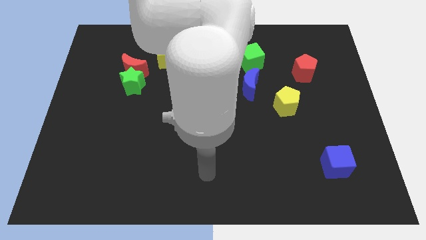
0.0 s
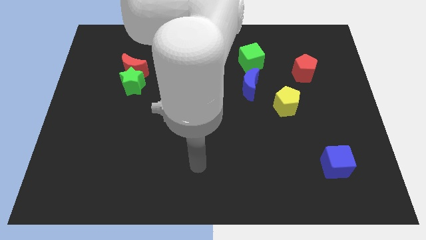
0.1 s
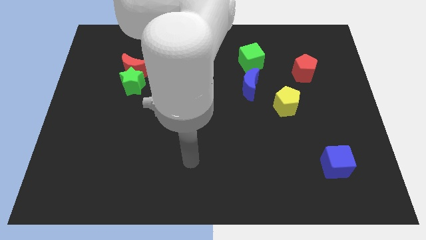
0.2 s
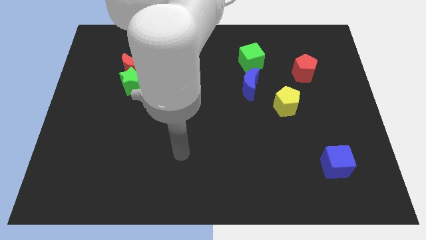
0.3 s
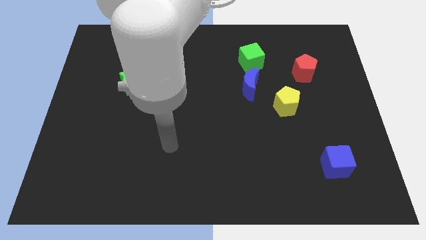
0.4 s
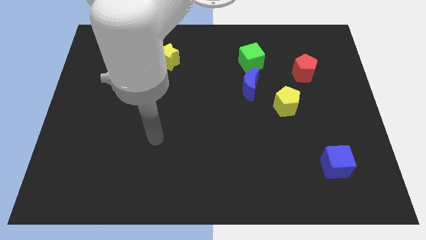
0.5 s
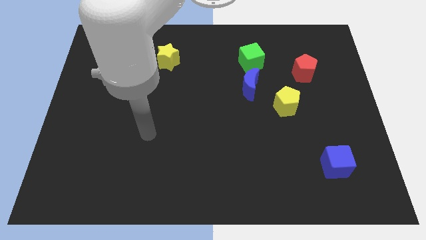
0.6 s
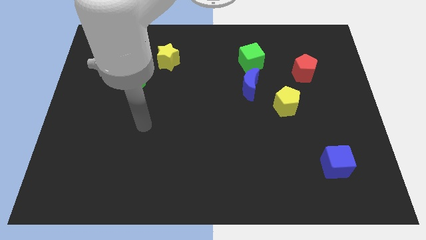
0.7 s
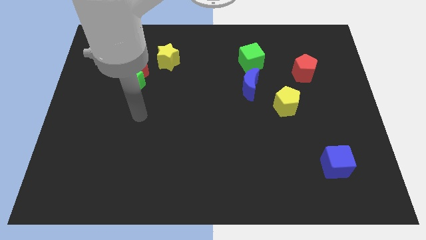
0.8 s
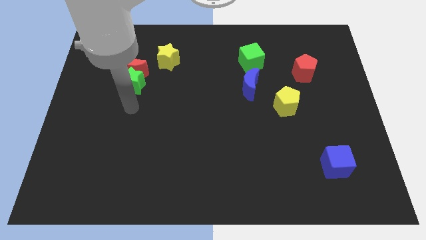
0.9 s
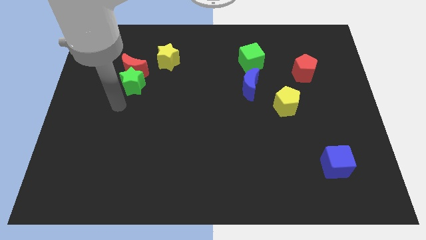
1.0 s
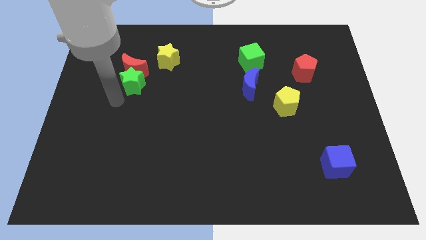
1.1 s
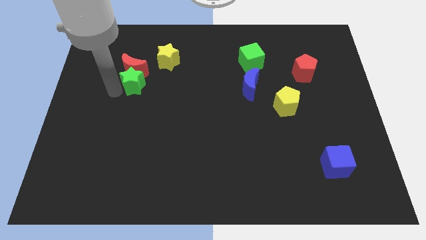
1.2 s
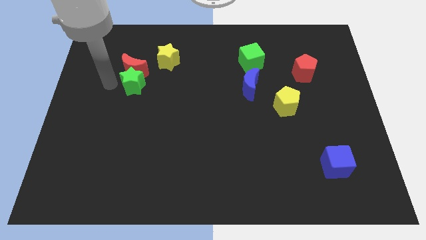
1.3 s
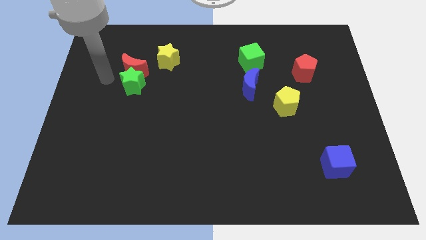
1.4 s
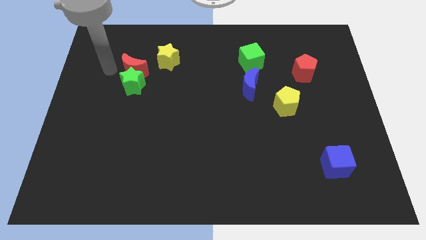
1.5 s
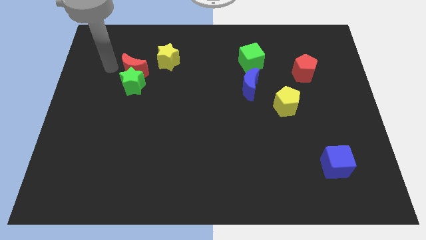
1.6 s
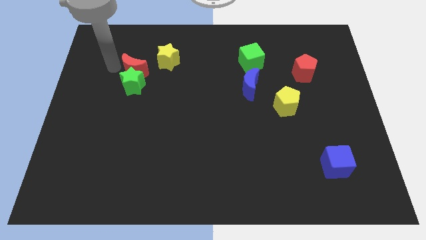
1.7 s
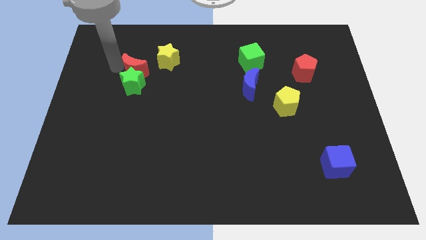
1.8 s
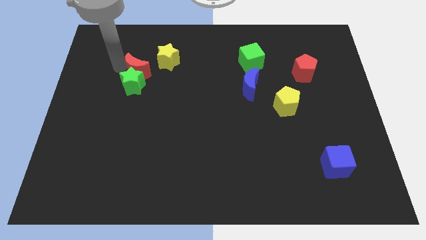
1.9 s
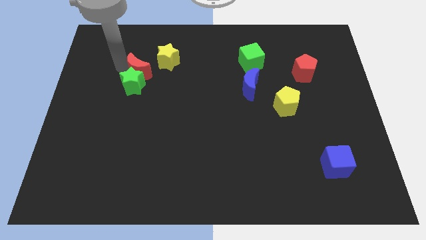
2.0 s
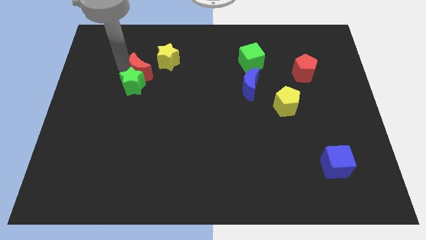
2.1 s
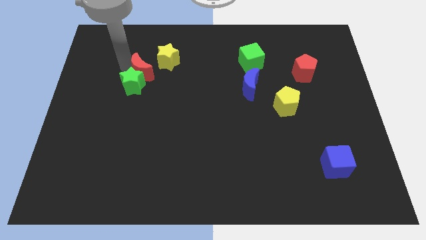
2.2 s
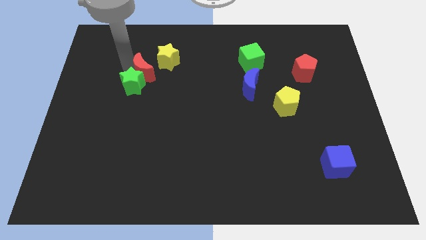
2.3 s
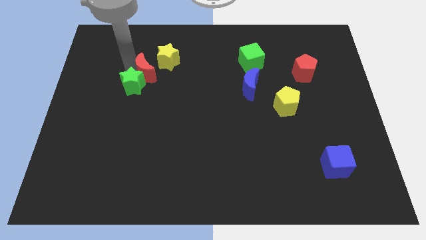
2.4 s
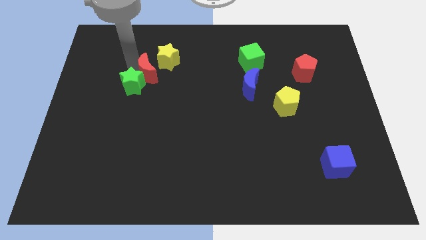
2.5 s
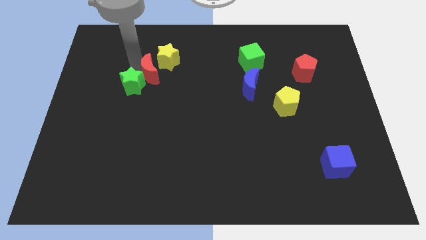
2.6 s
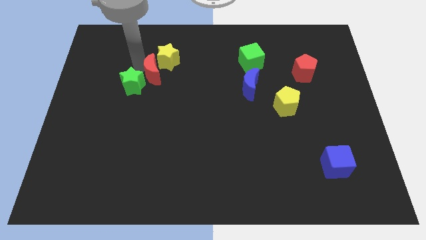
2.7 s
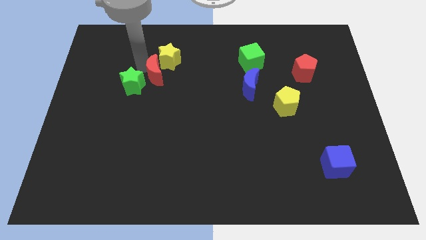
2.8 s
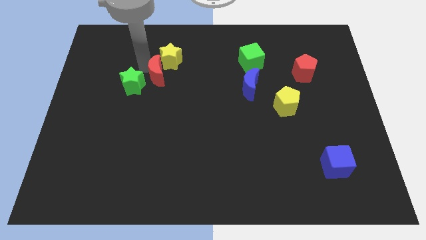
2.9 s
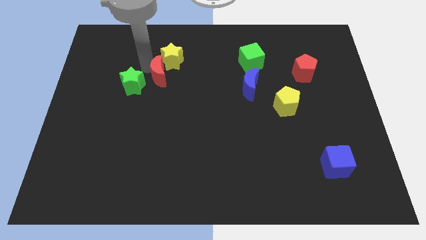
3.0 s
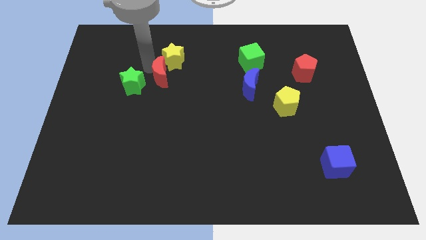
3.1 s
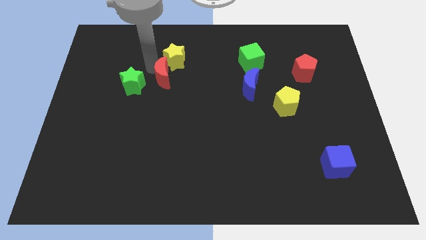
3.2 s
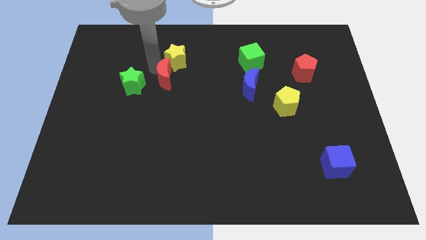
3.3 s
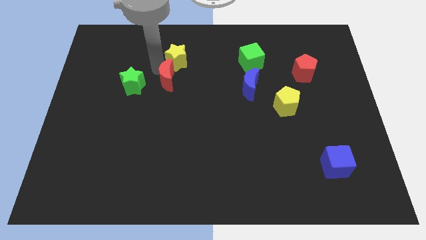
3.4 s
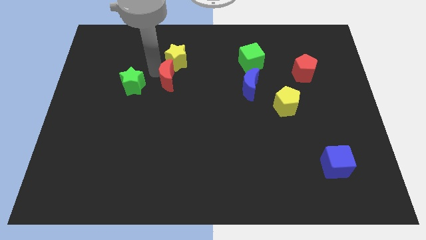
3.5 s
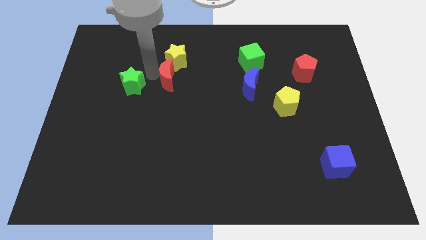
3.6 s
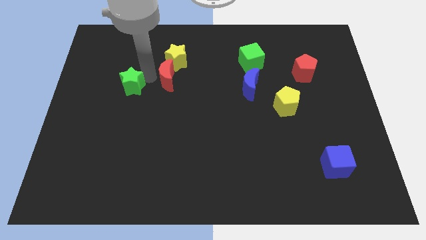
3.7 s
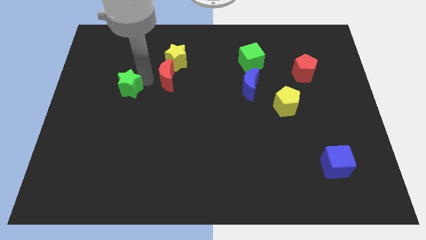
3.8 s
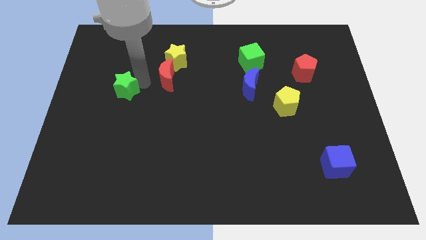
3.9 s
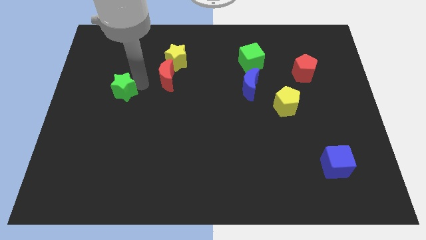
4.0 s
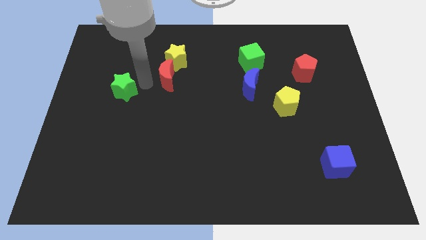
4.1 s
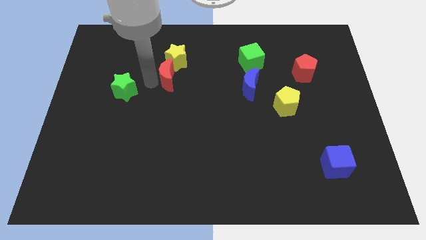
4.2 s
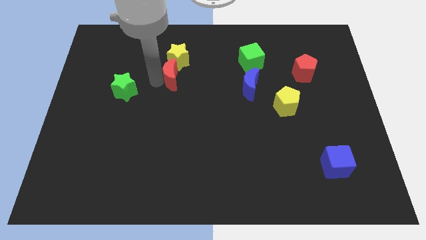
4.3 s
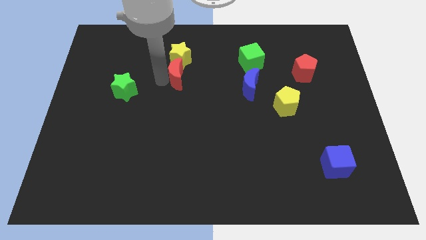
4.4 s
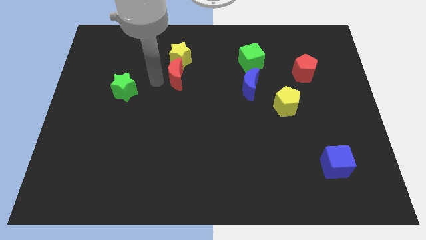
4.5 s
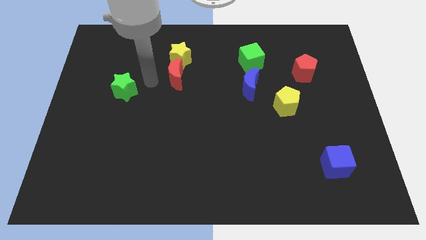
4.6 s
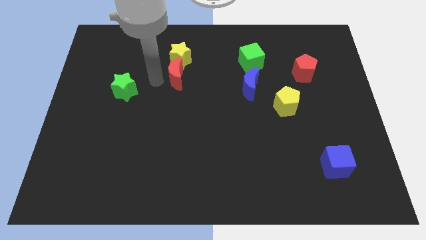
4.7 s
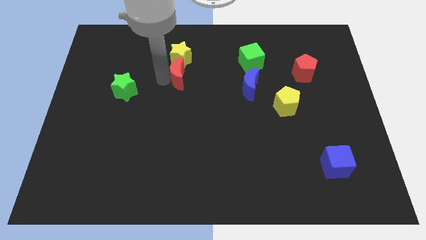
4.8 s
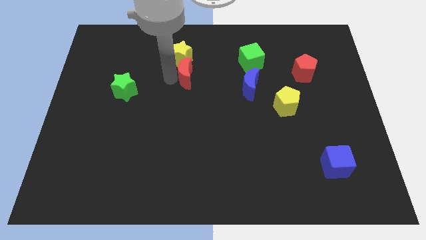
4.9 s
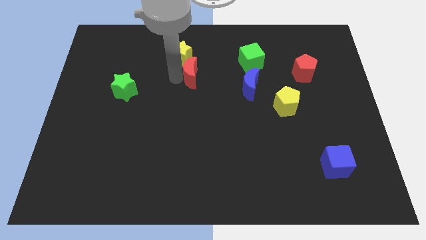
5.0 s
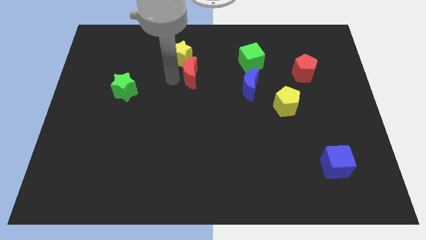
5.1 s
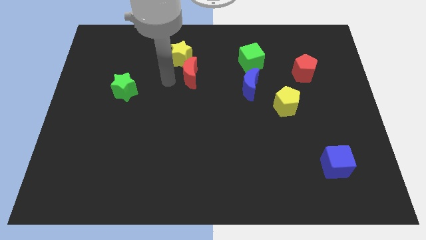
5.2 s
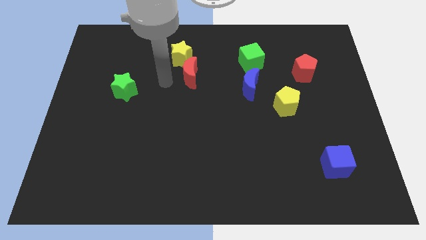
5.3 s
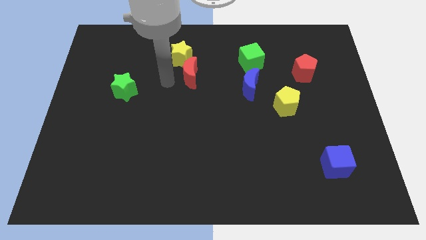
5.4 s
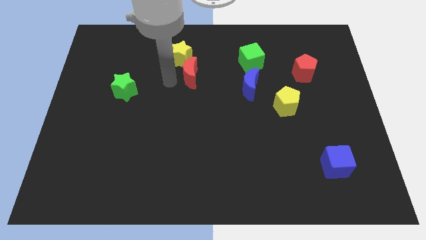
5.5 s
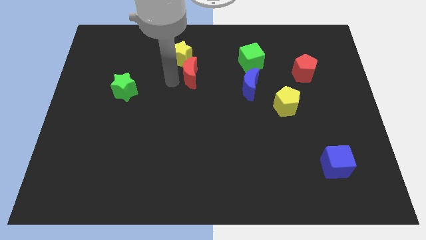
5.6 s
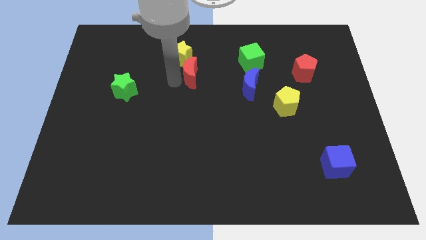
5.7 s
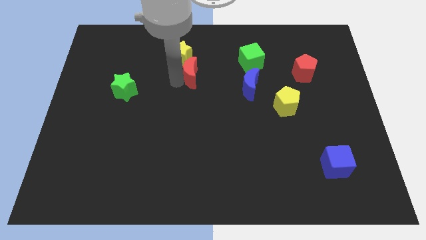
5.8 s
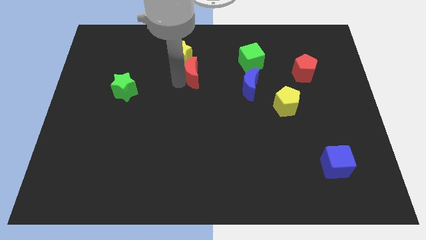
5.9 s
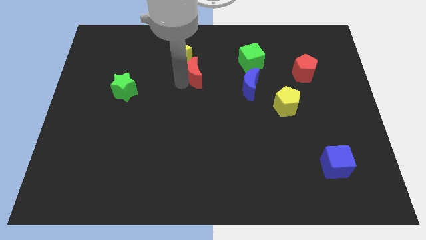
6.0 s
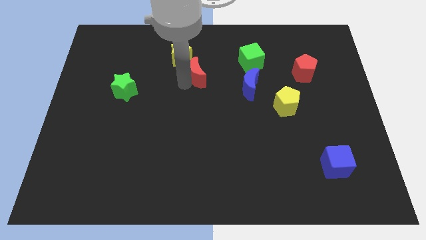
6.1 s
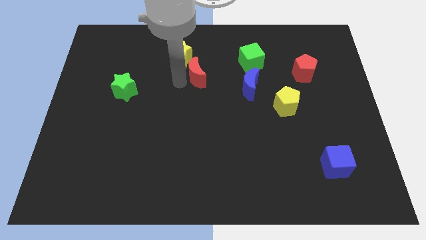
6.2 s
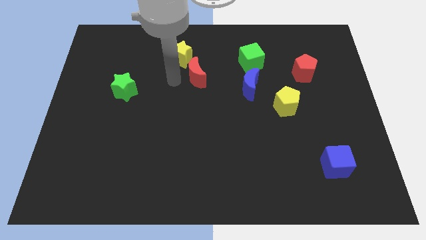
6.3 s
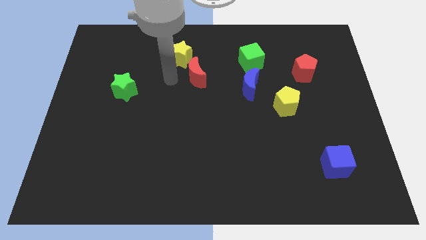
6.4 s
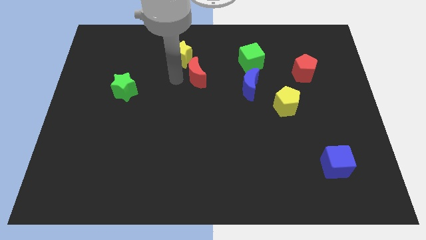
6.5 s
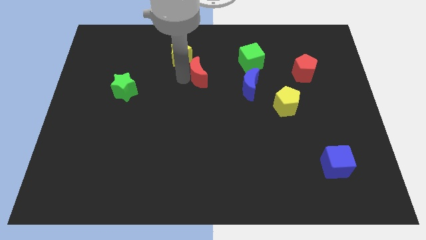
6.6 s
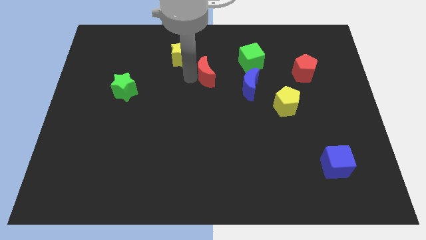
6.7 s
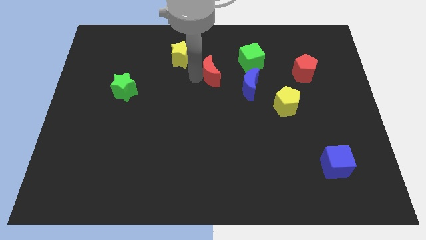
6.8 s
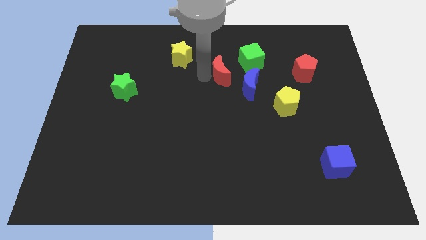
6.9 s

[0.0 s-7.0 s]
slide the red moon right

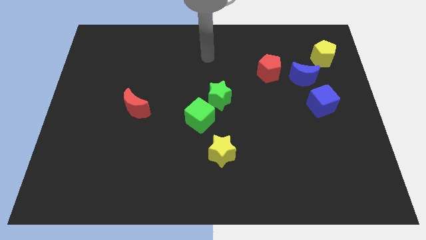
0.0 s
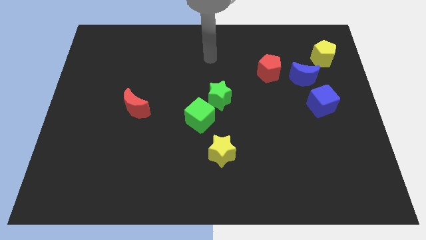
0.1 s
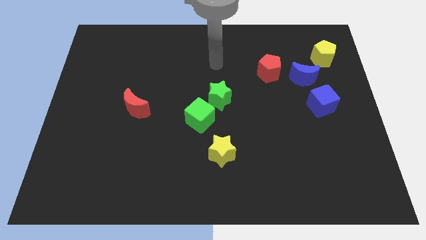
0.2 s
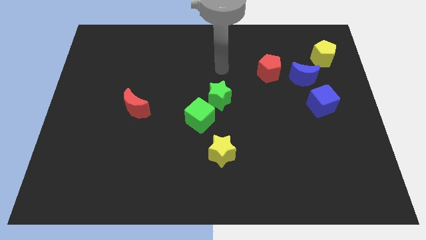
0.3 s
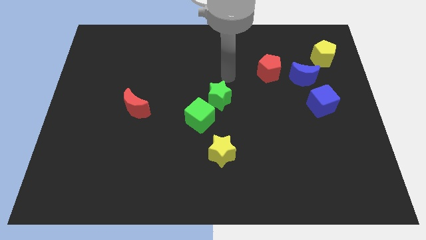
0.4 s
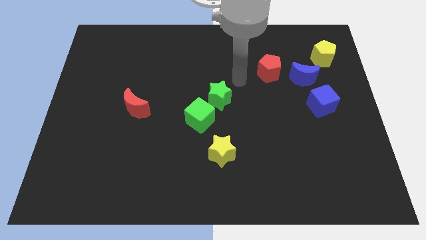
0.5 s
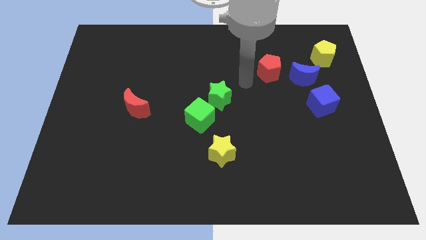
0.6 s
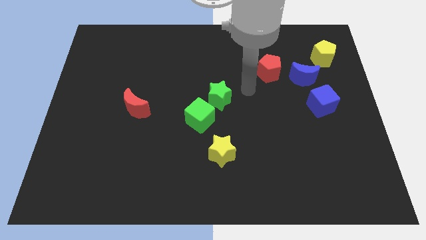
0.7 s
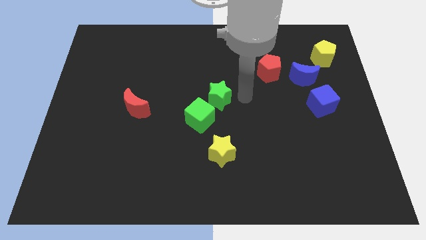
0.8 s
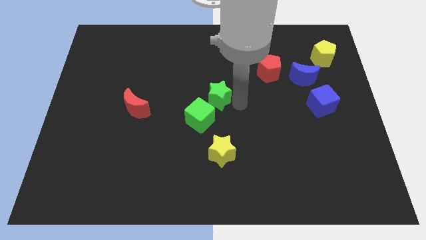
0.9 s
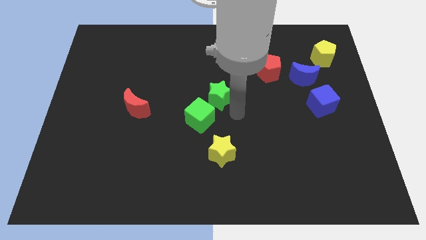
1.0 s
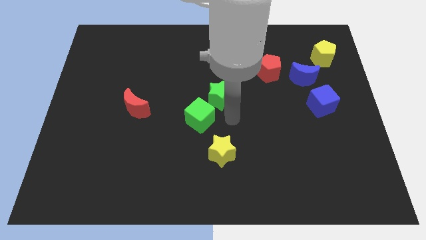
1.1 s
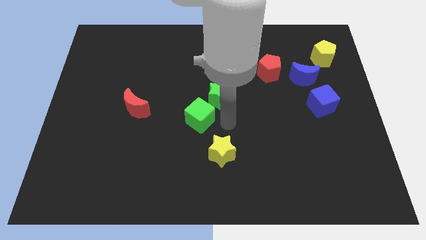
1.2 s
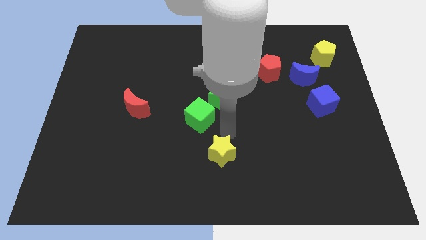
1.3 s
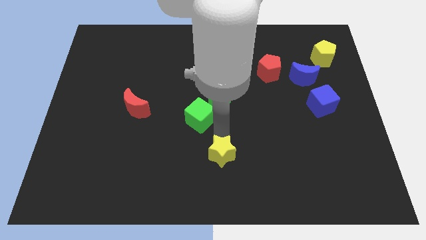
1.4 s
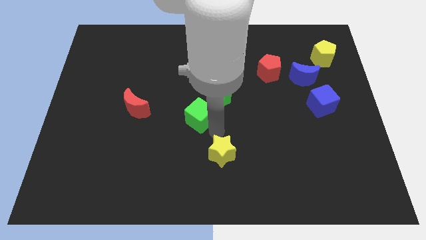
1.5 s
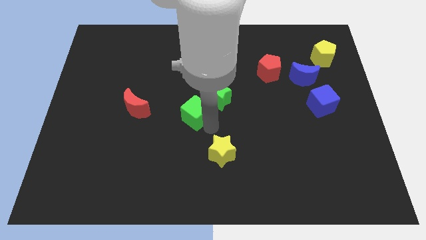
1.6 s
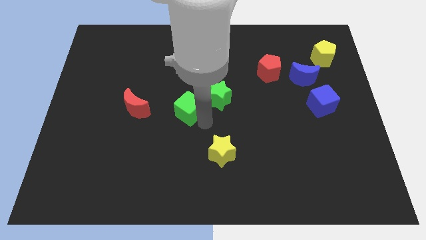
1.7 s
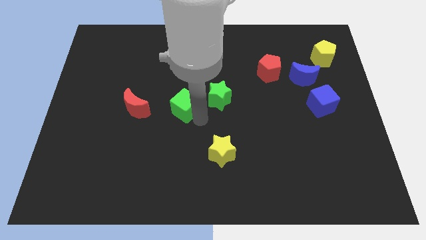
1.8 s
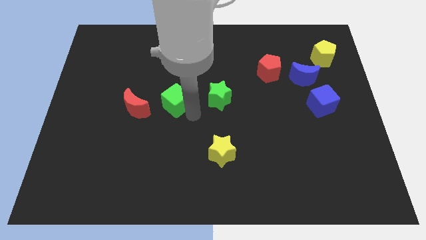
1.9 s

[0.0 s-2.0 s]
slightly slide the green cube upwards and left
